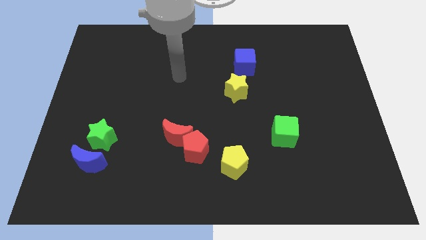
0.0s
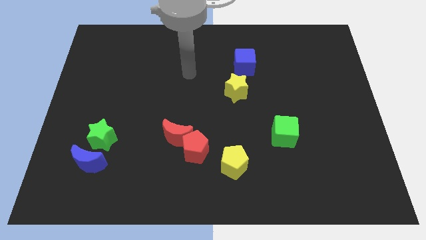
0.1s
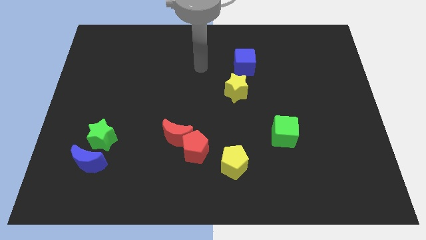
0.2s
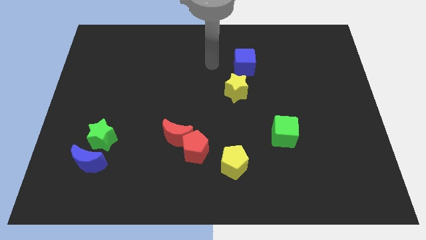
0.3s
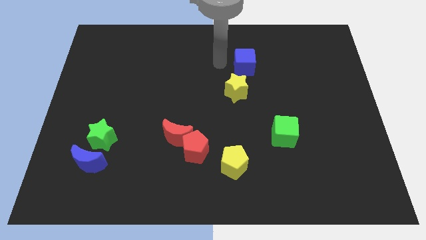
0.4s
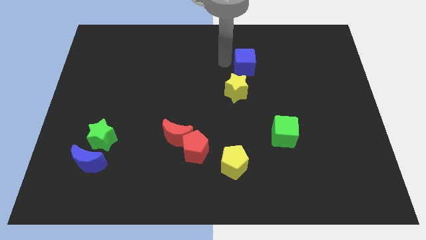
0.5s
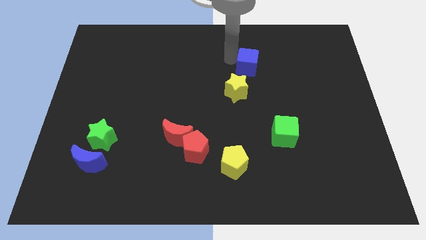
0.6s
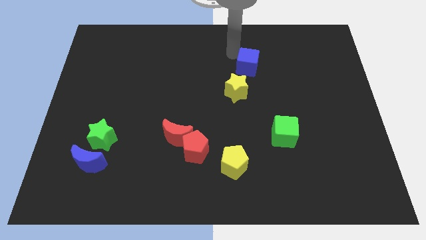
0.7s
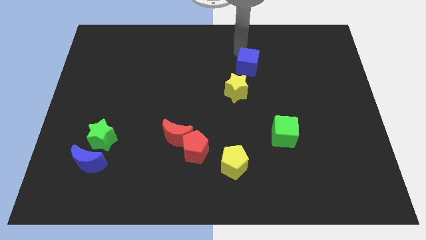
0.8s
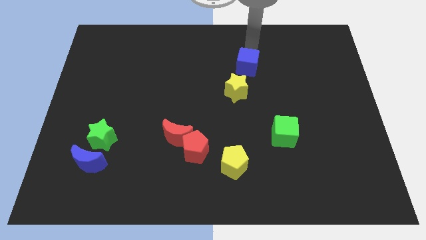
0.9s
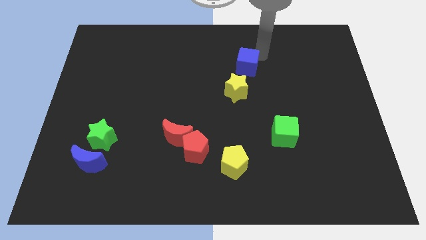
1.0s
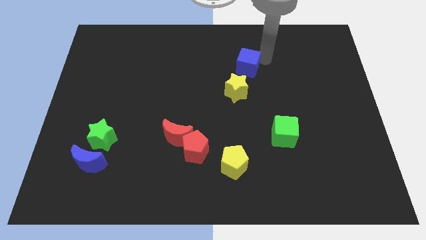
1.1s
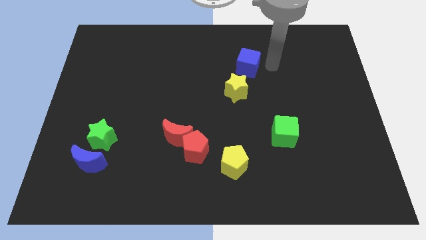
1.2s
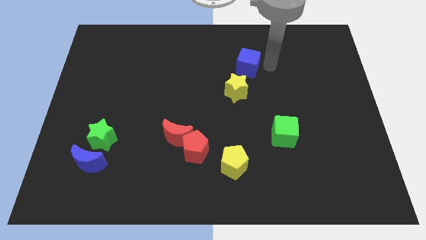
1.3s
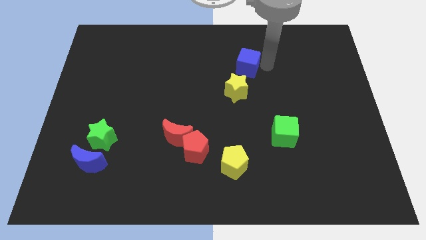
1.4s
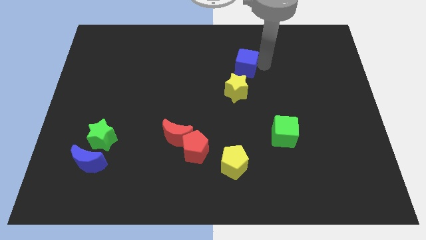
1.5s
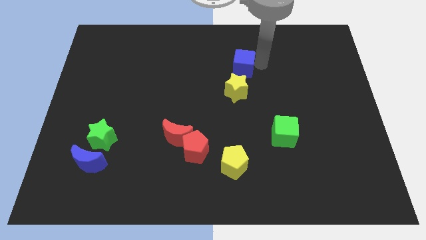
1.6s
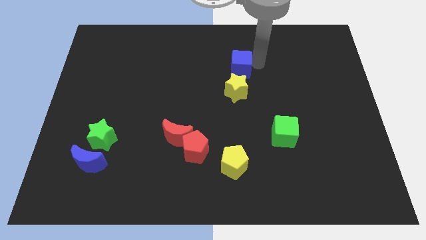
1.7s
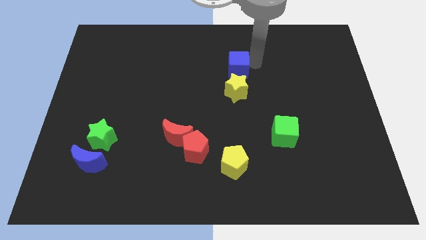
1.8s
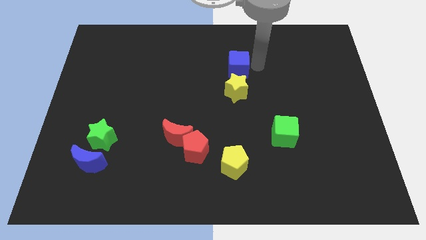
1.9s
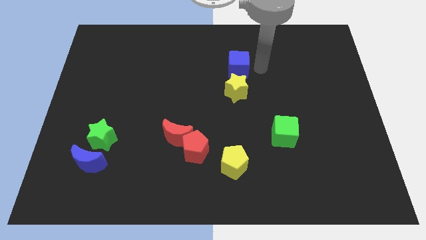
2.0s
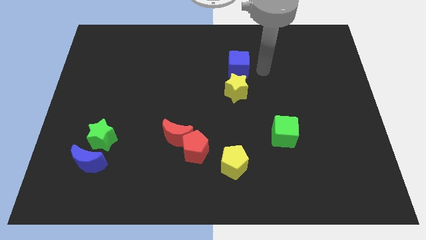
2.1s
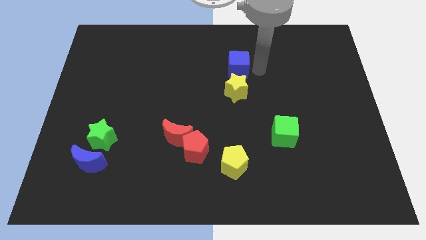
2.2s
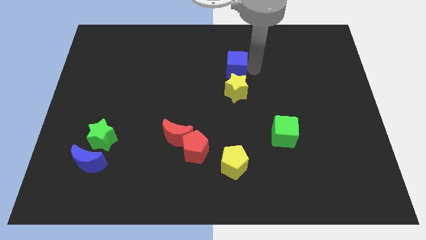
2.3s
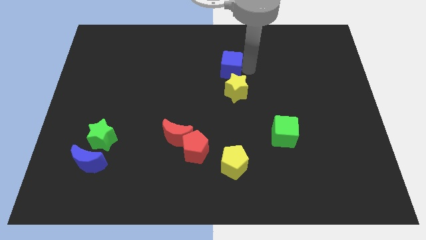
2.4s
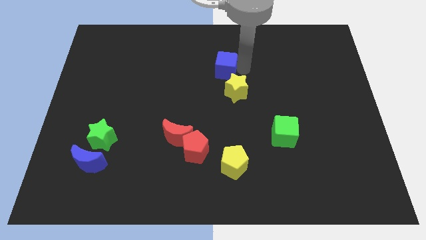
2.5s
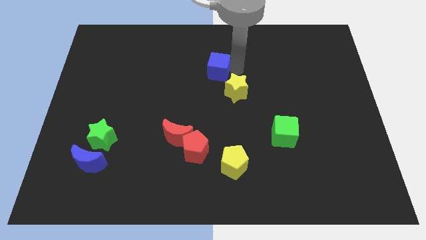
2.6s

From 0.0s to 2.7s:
move the blue cube slightly left

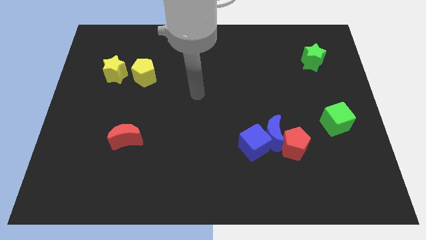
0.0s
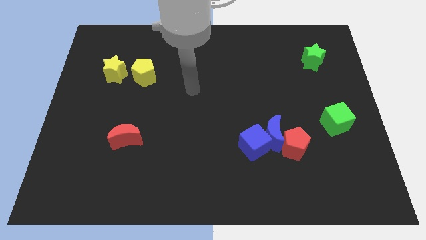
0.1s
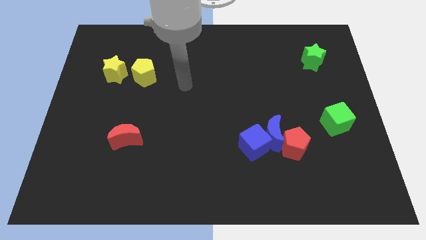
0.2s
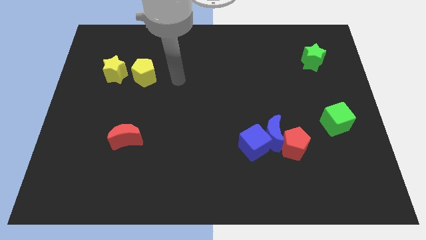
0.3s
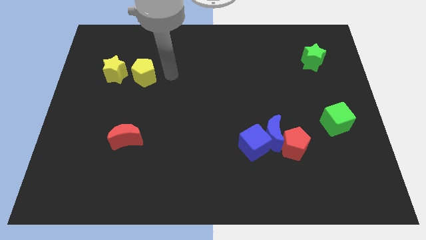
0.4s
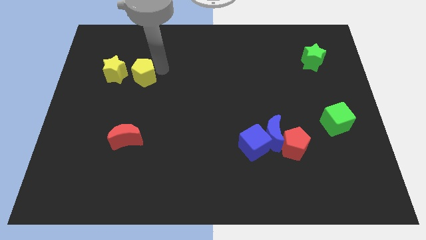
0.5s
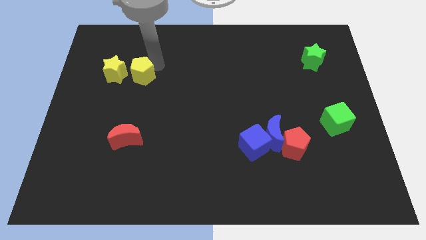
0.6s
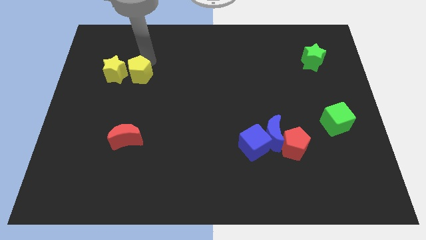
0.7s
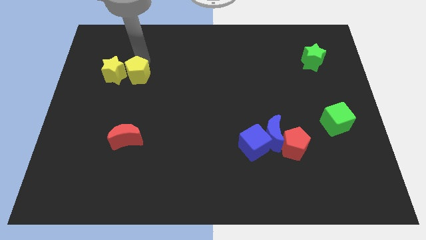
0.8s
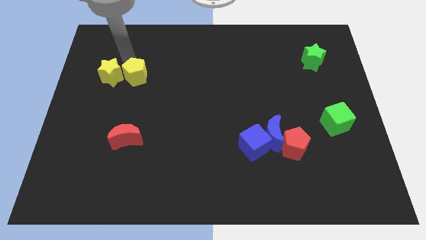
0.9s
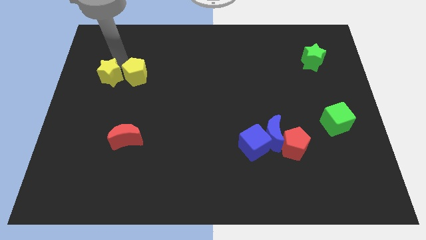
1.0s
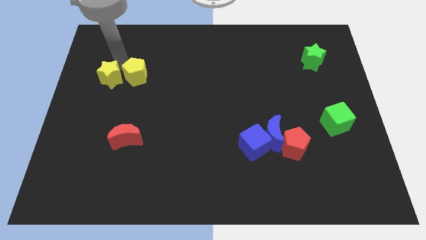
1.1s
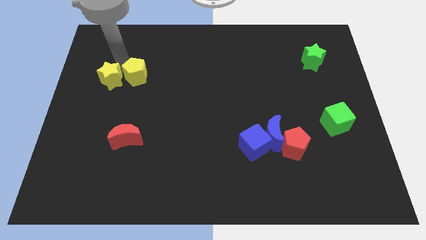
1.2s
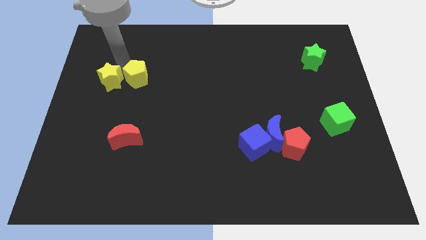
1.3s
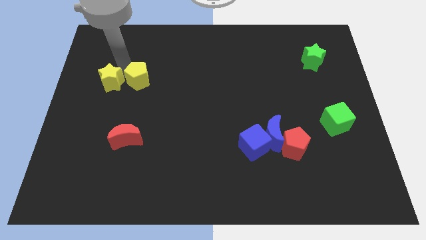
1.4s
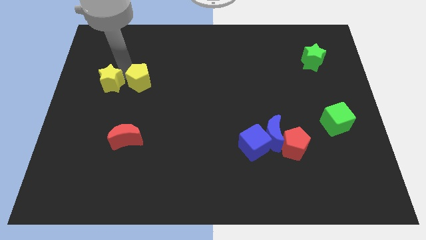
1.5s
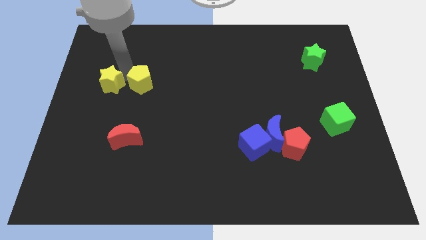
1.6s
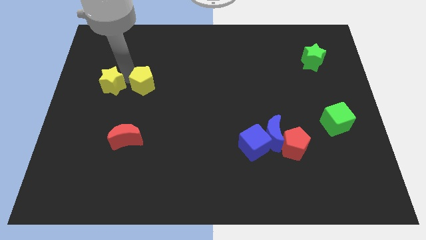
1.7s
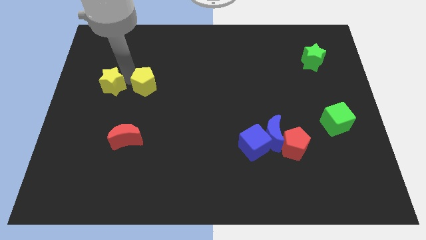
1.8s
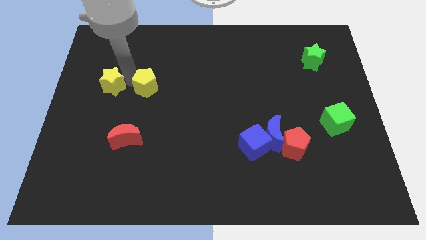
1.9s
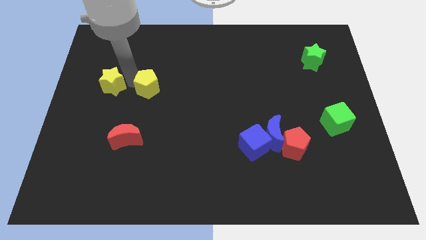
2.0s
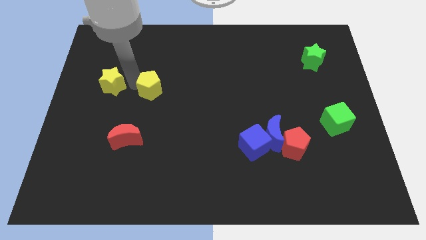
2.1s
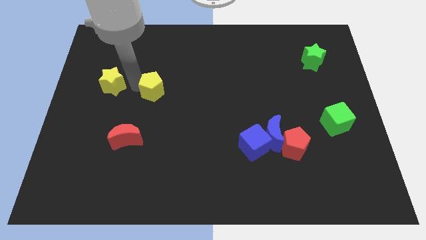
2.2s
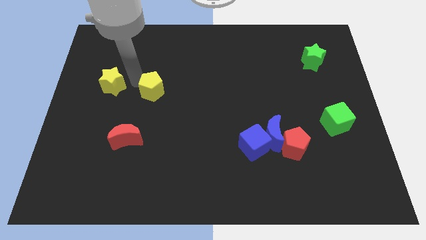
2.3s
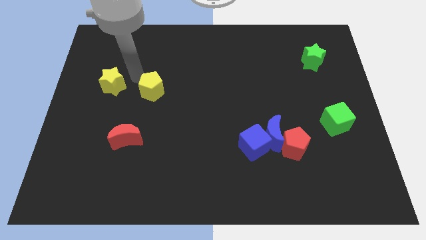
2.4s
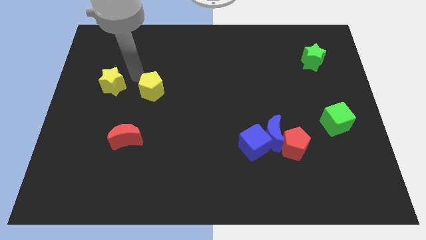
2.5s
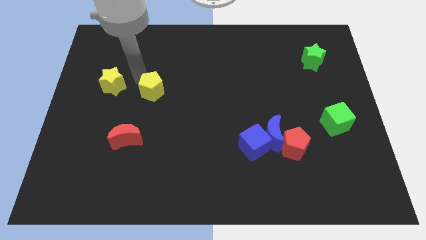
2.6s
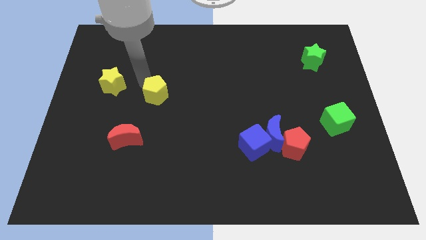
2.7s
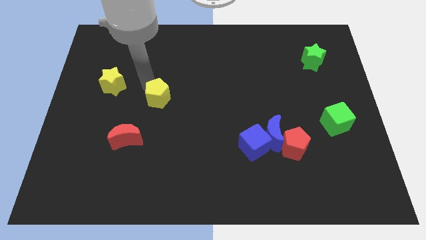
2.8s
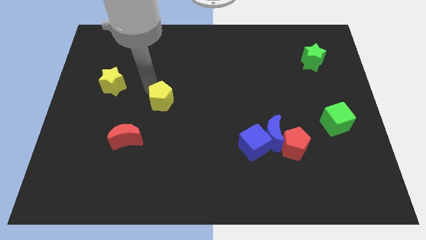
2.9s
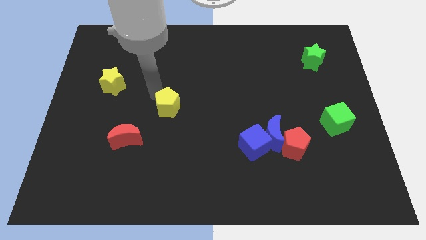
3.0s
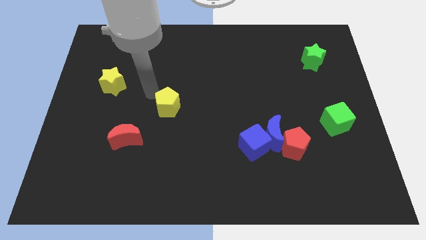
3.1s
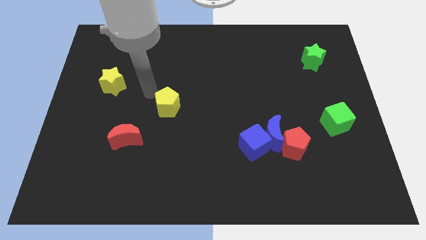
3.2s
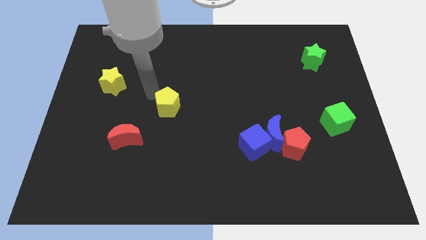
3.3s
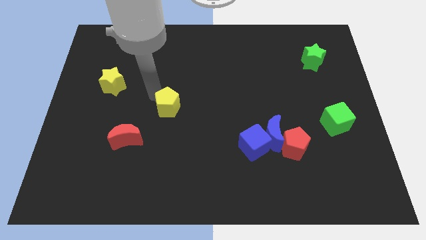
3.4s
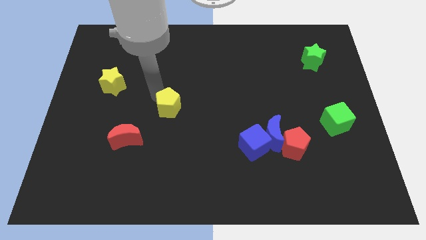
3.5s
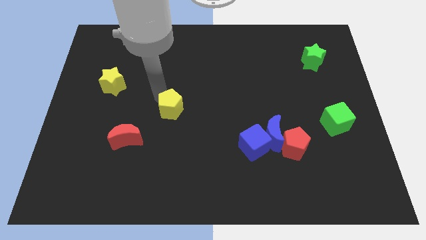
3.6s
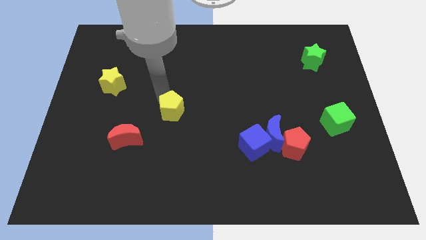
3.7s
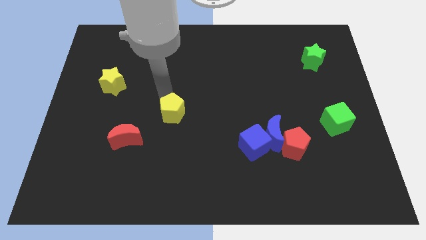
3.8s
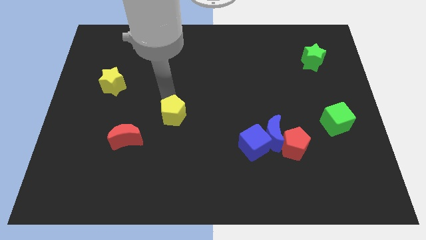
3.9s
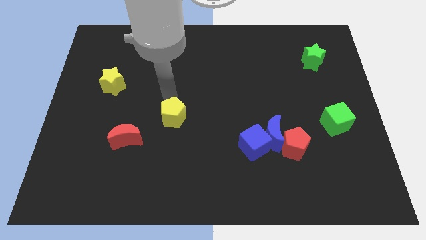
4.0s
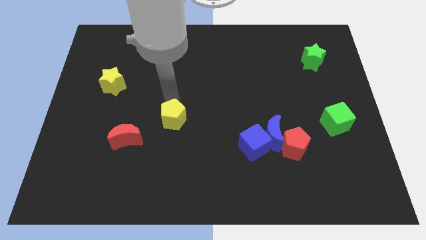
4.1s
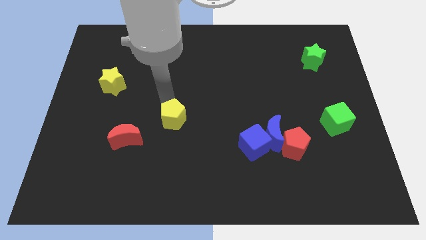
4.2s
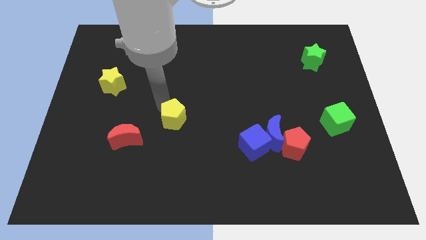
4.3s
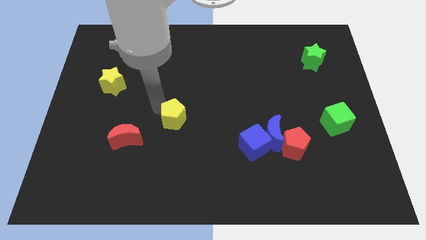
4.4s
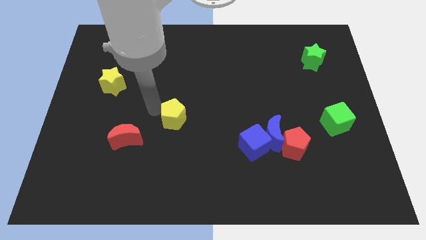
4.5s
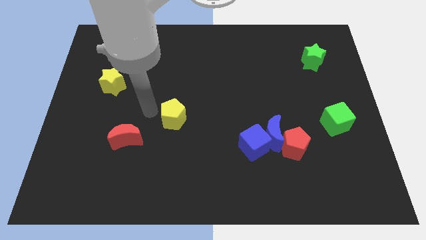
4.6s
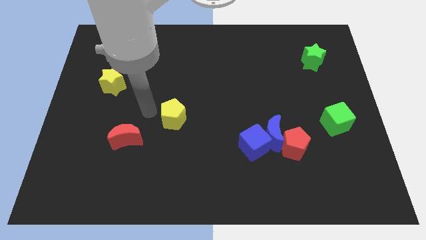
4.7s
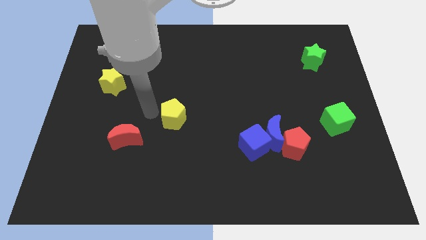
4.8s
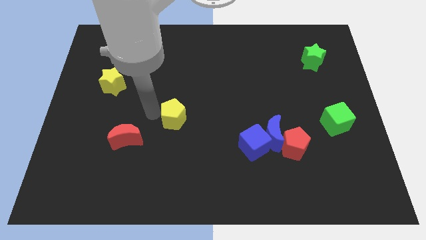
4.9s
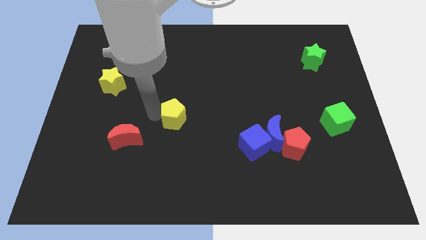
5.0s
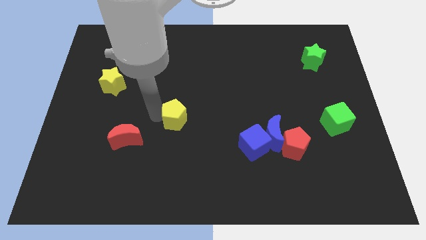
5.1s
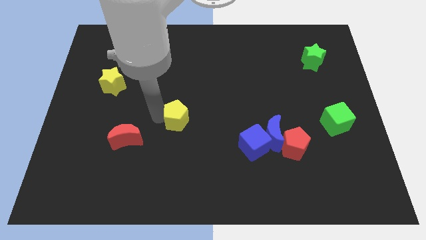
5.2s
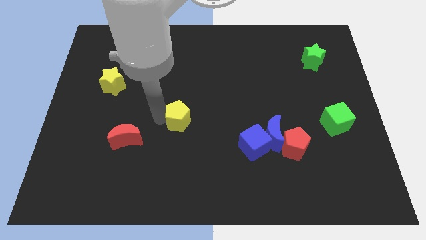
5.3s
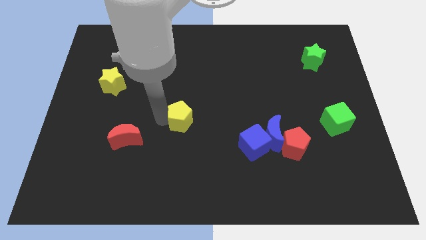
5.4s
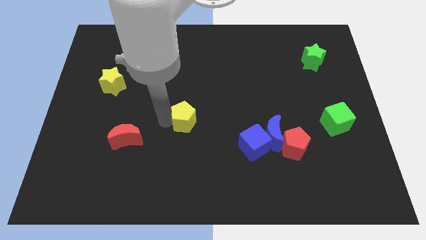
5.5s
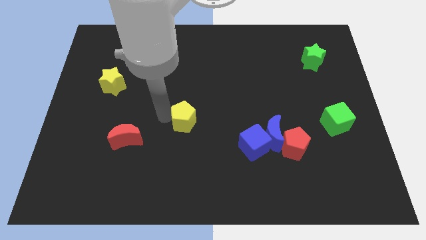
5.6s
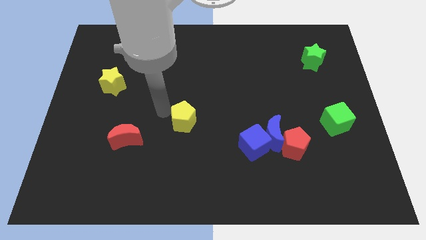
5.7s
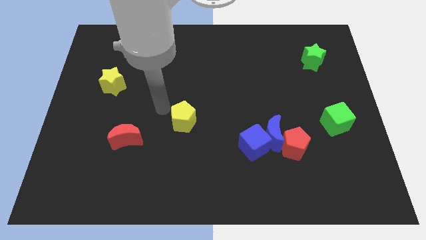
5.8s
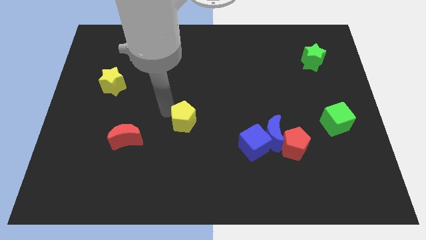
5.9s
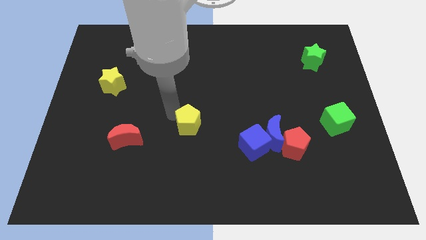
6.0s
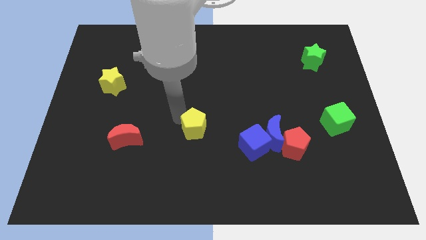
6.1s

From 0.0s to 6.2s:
move the yellow pentagon diagonally downwards and right
